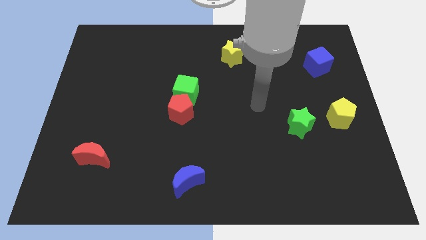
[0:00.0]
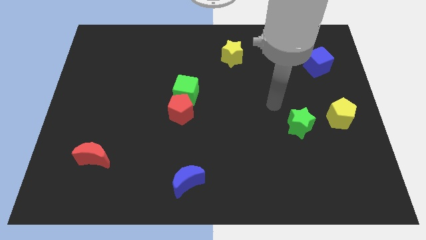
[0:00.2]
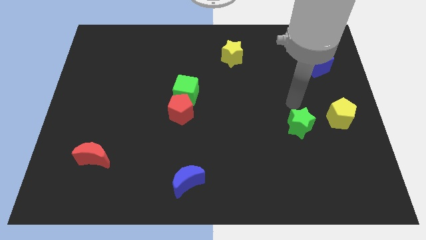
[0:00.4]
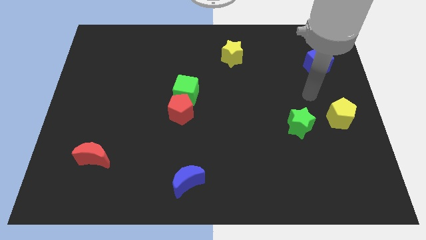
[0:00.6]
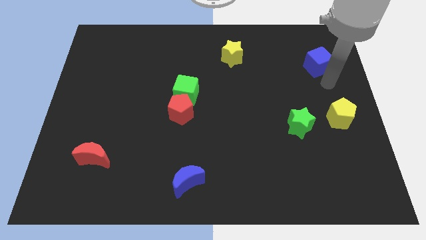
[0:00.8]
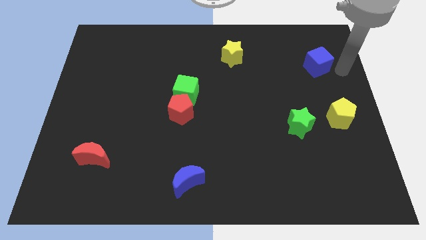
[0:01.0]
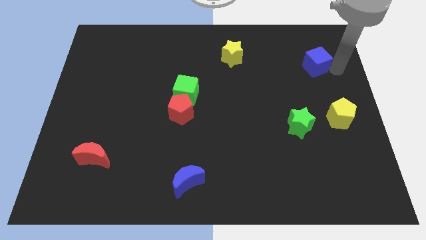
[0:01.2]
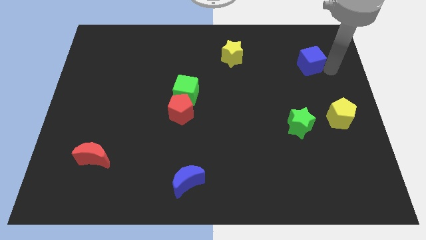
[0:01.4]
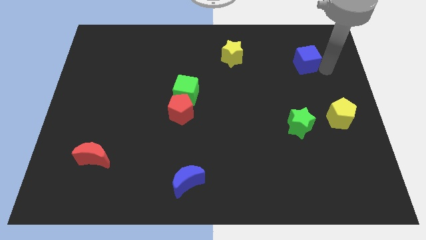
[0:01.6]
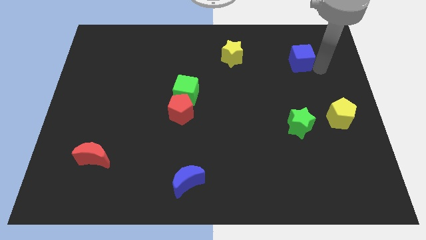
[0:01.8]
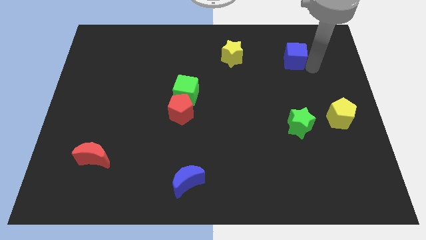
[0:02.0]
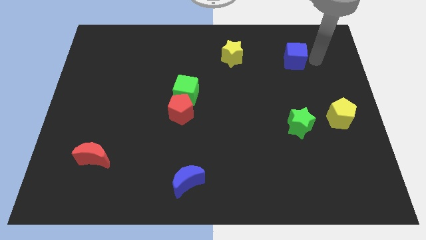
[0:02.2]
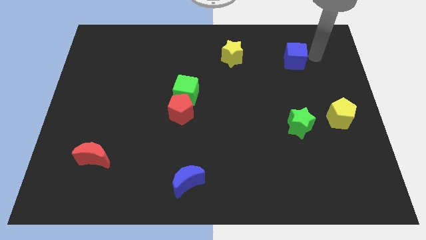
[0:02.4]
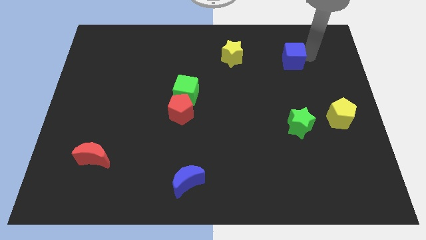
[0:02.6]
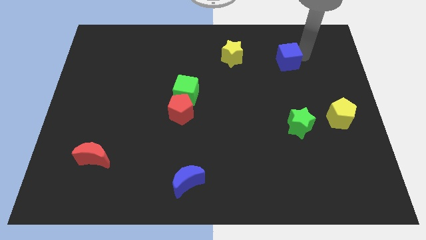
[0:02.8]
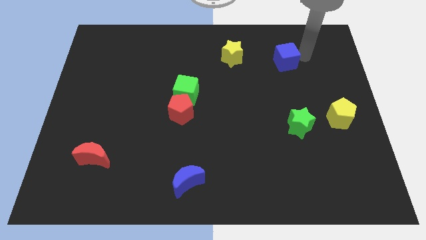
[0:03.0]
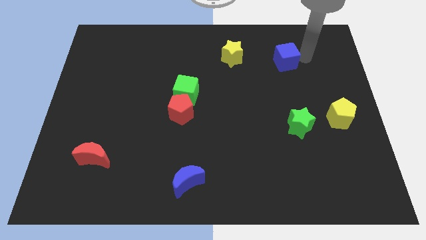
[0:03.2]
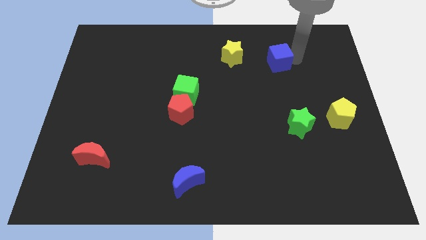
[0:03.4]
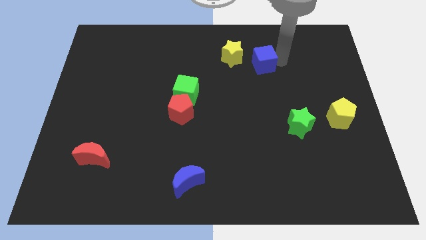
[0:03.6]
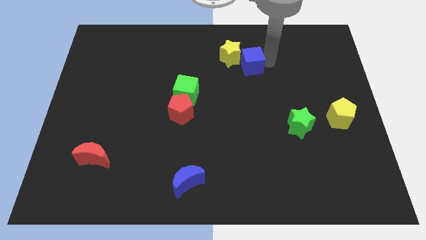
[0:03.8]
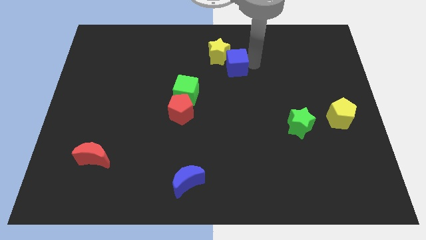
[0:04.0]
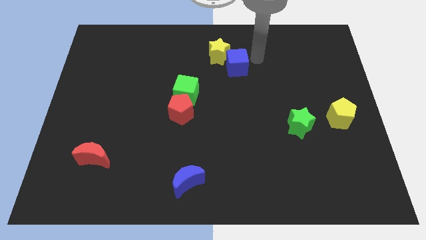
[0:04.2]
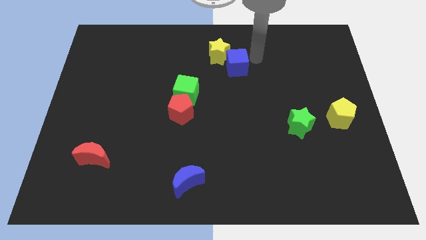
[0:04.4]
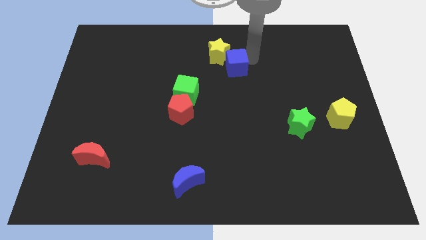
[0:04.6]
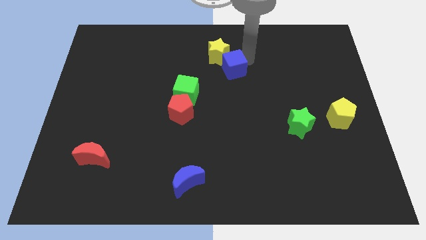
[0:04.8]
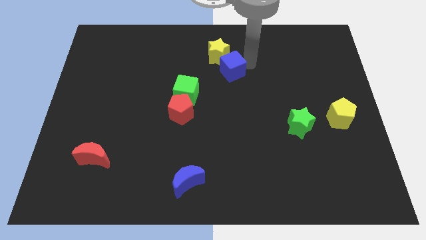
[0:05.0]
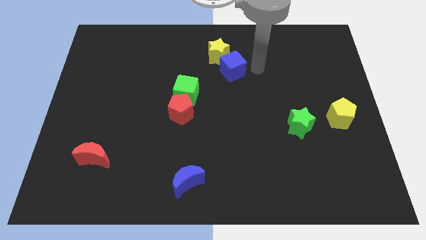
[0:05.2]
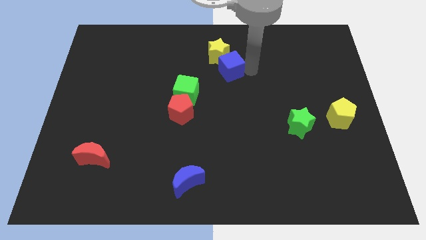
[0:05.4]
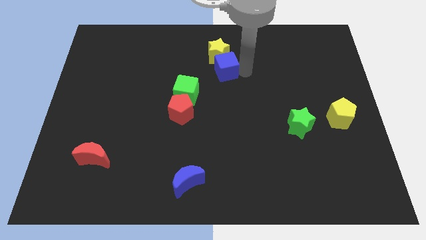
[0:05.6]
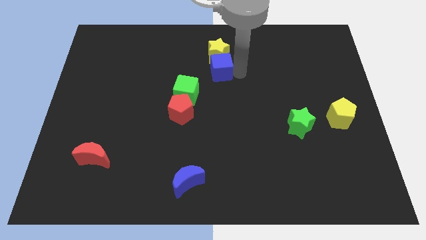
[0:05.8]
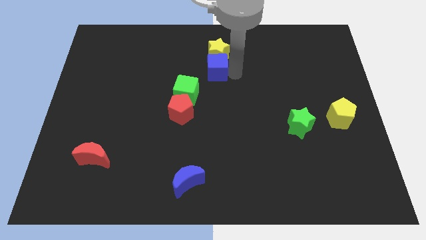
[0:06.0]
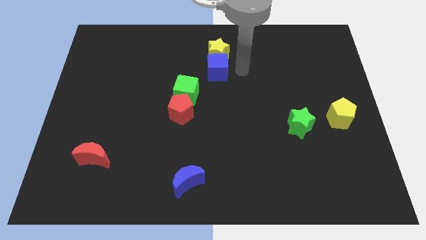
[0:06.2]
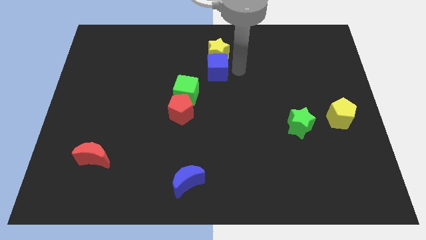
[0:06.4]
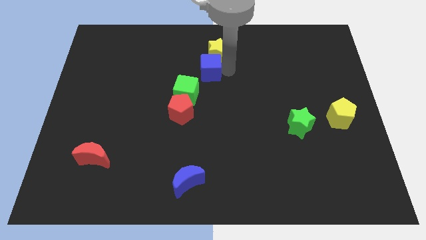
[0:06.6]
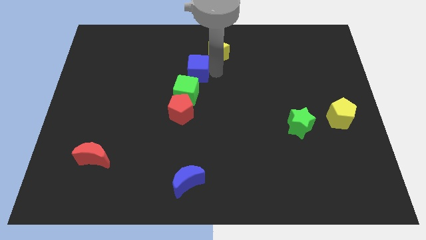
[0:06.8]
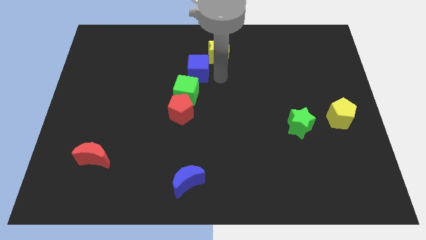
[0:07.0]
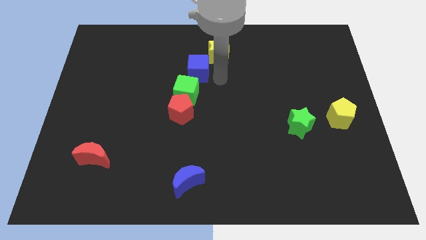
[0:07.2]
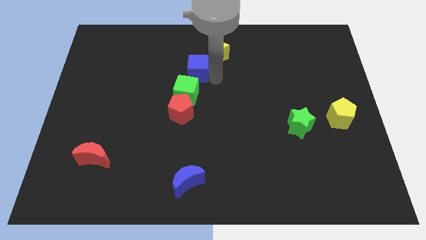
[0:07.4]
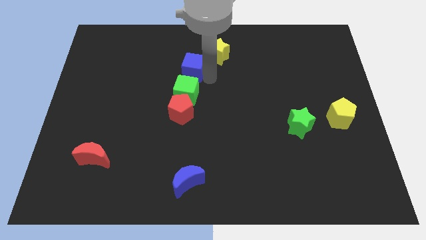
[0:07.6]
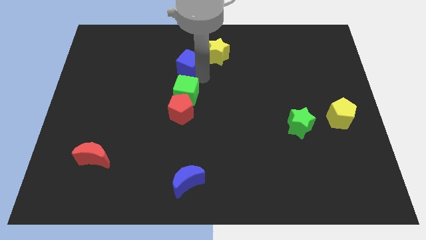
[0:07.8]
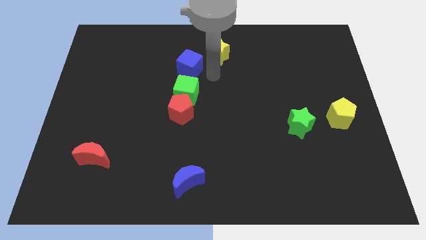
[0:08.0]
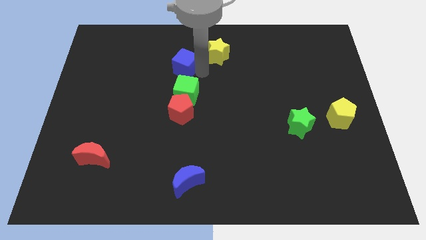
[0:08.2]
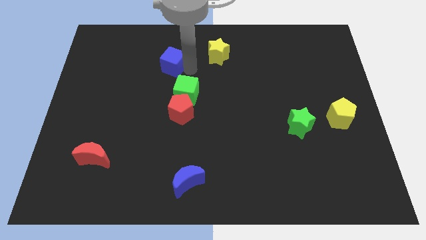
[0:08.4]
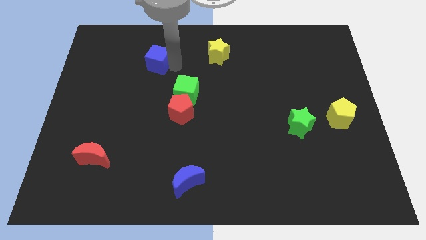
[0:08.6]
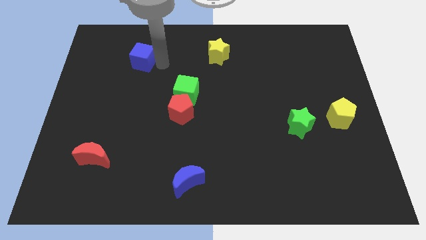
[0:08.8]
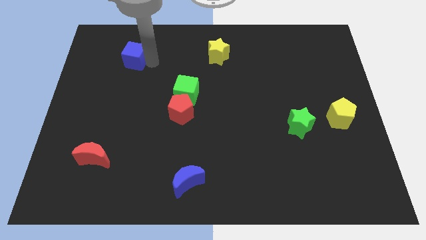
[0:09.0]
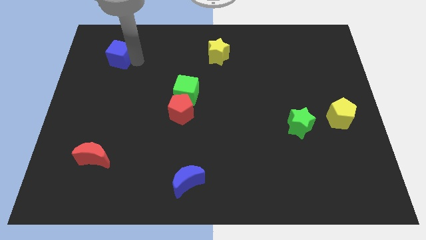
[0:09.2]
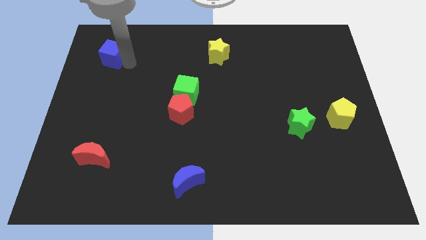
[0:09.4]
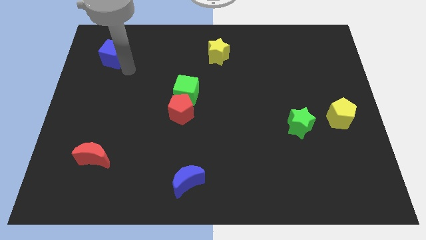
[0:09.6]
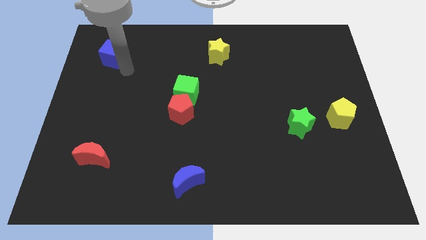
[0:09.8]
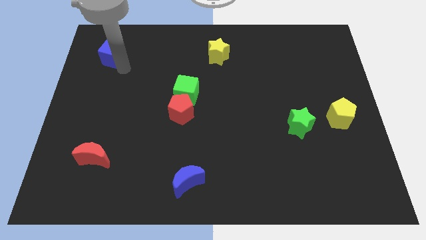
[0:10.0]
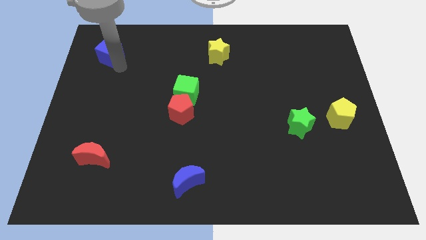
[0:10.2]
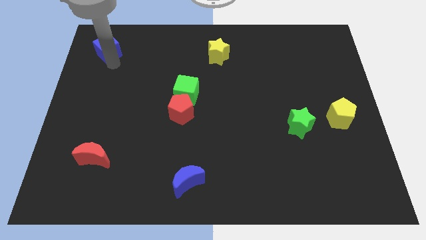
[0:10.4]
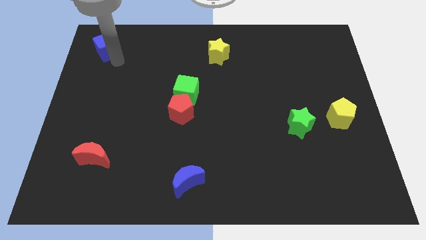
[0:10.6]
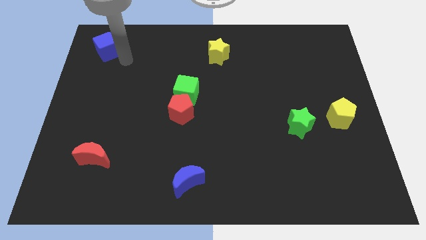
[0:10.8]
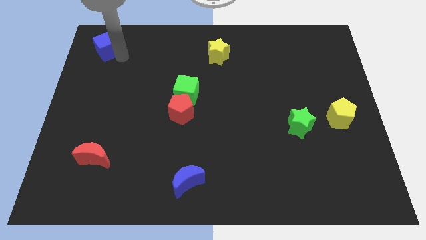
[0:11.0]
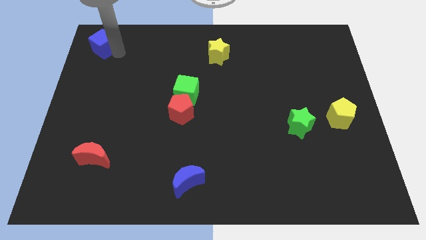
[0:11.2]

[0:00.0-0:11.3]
put the blue cube to the top left corner

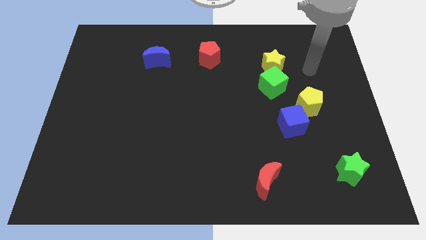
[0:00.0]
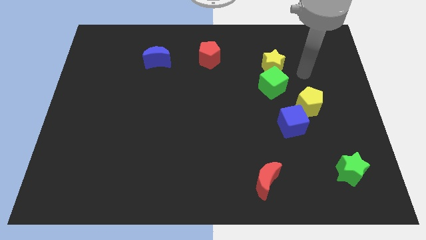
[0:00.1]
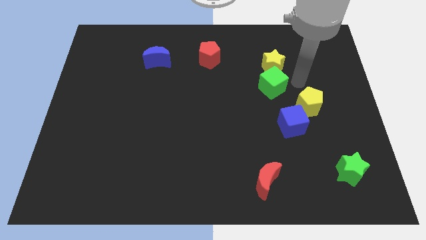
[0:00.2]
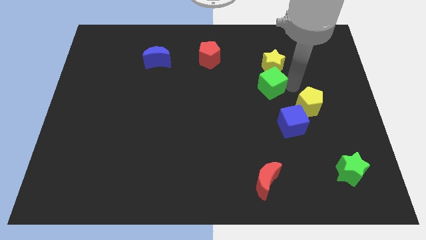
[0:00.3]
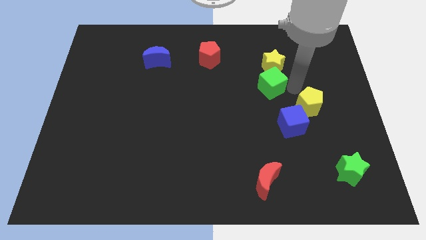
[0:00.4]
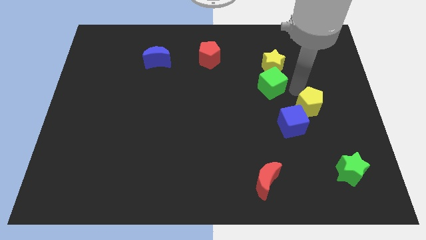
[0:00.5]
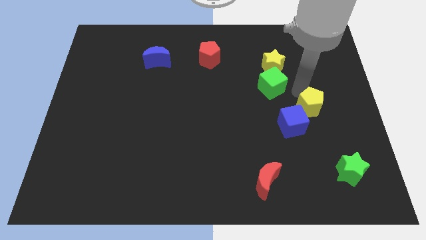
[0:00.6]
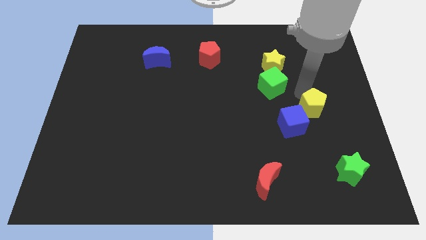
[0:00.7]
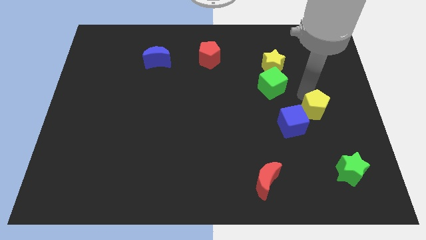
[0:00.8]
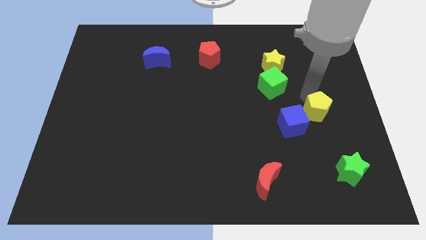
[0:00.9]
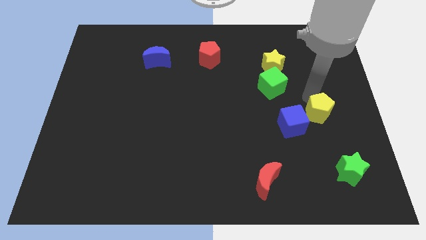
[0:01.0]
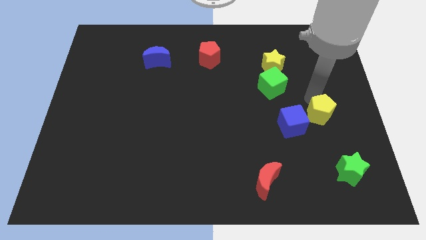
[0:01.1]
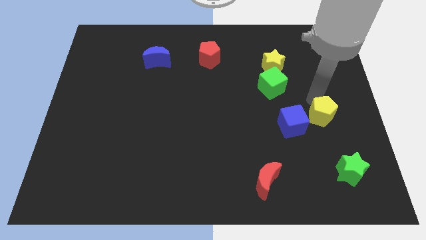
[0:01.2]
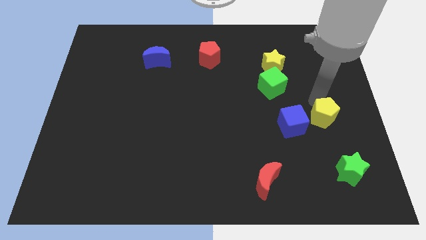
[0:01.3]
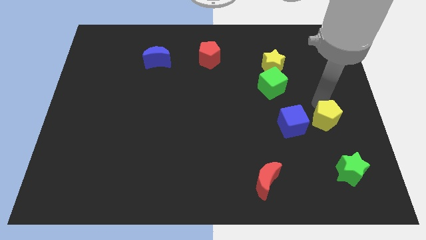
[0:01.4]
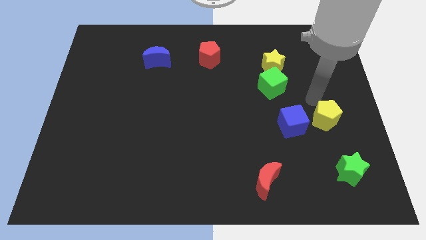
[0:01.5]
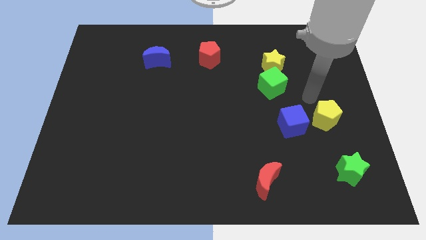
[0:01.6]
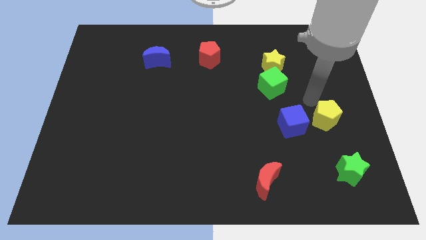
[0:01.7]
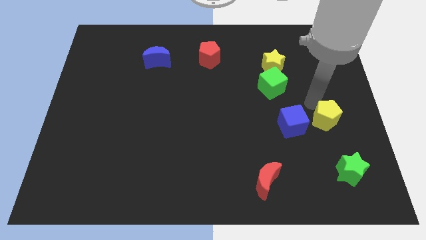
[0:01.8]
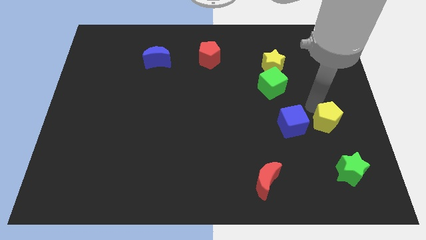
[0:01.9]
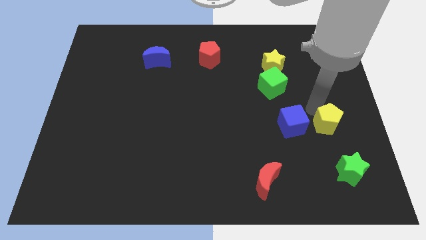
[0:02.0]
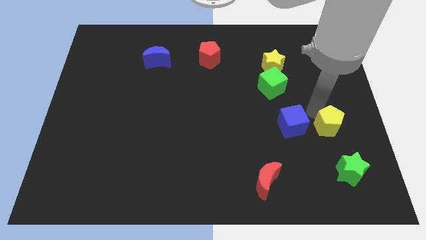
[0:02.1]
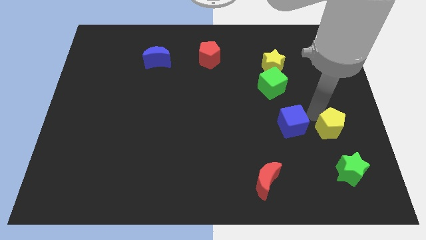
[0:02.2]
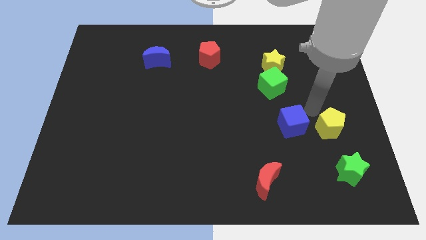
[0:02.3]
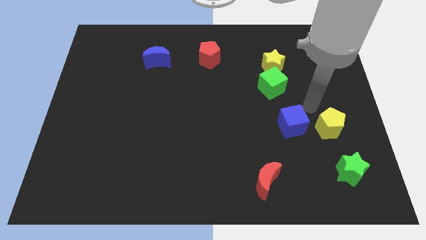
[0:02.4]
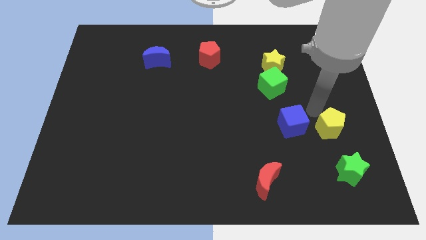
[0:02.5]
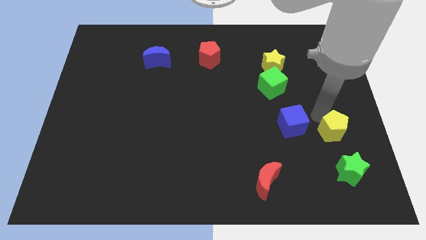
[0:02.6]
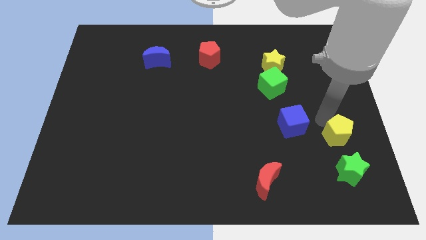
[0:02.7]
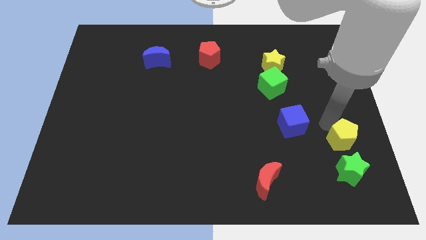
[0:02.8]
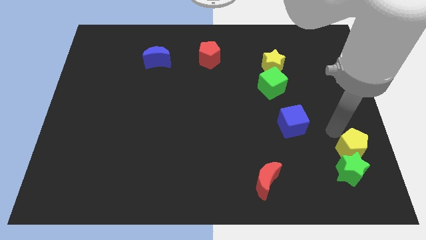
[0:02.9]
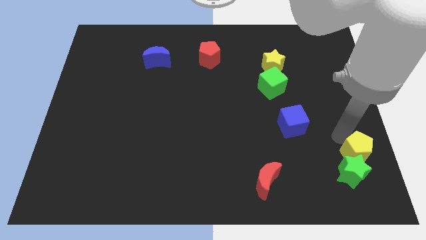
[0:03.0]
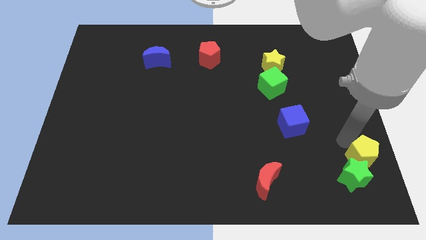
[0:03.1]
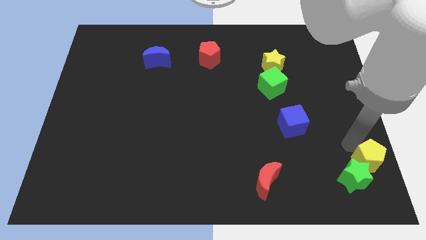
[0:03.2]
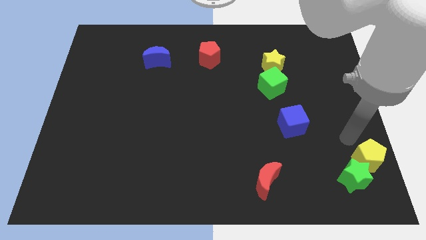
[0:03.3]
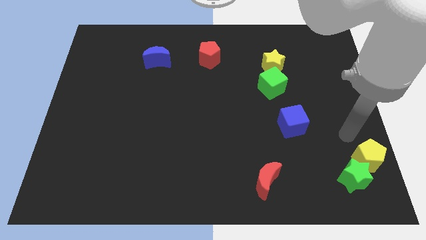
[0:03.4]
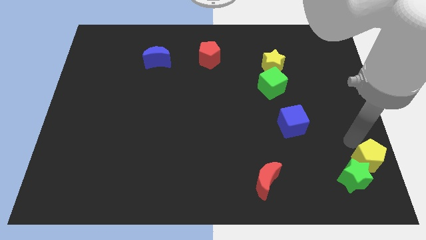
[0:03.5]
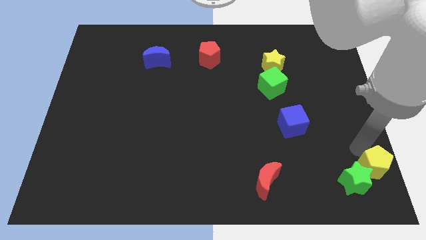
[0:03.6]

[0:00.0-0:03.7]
slide the yellow pentagon to the bottom right of the board
